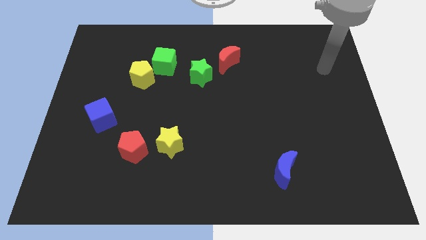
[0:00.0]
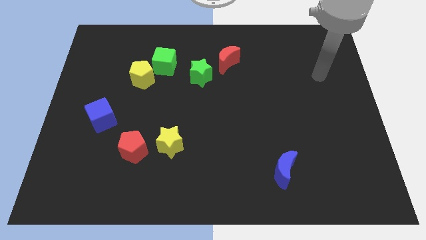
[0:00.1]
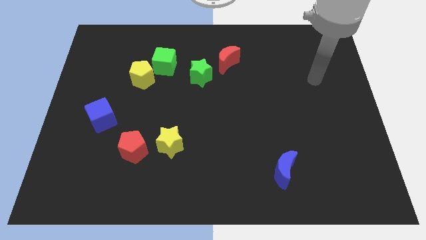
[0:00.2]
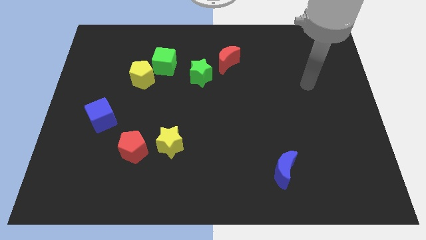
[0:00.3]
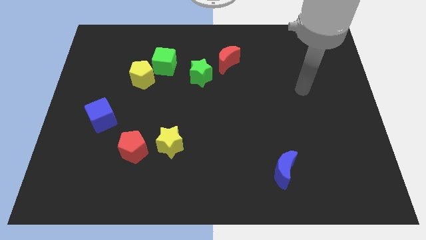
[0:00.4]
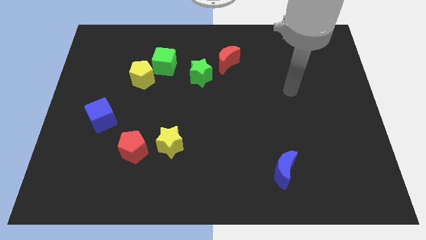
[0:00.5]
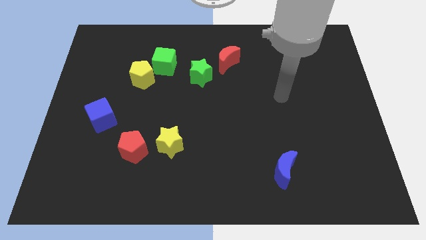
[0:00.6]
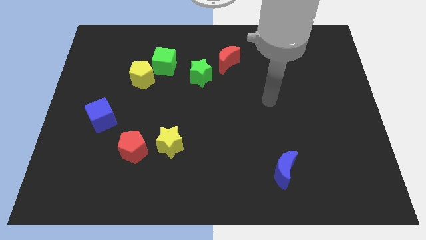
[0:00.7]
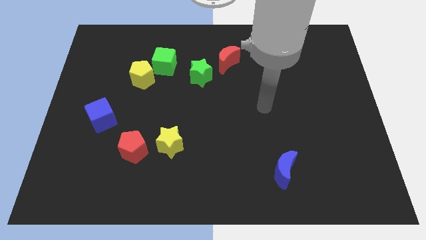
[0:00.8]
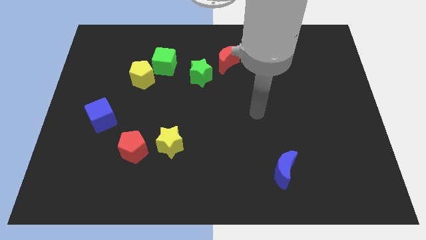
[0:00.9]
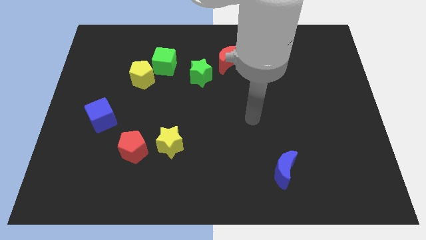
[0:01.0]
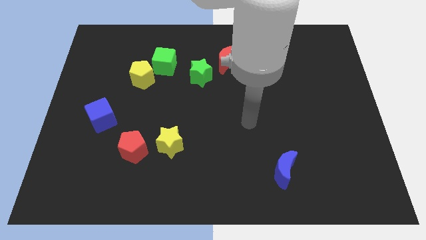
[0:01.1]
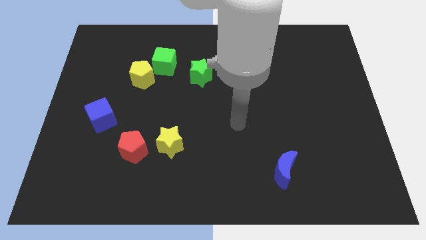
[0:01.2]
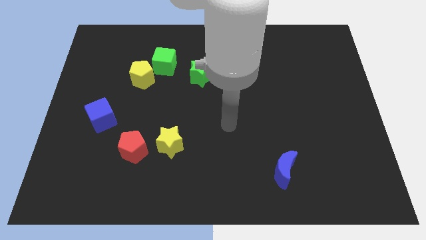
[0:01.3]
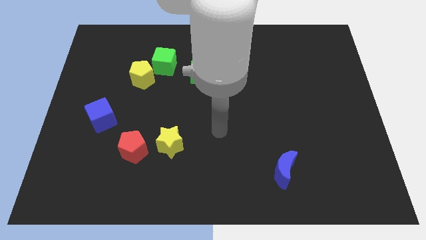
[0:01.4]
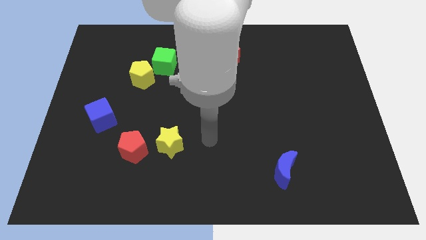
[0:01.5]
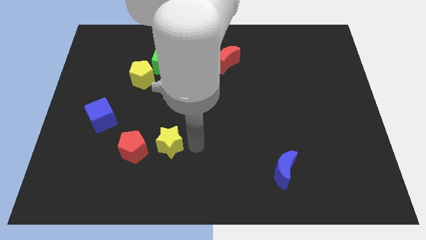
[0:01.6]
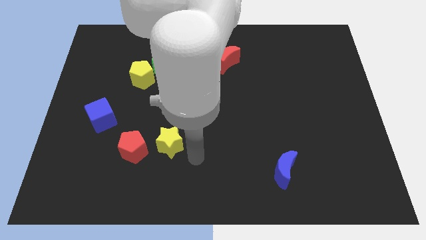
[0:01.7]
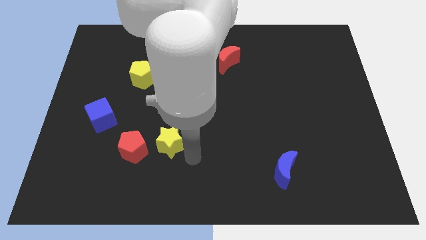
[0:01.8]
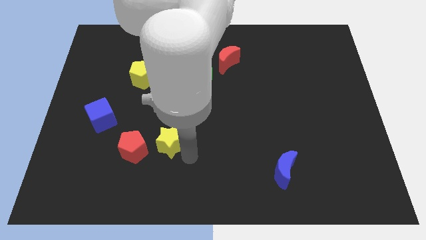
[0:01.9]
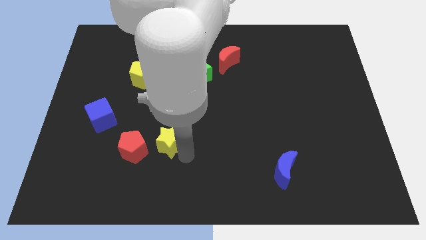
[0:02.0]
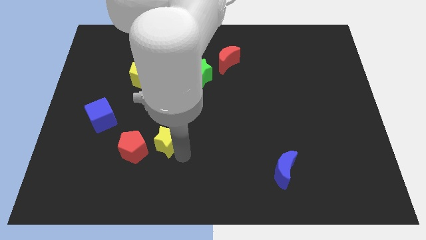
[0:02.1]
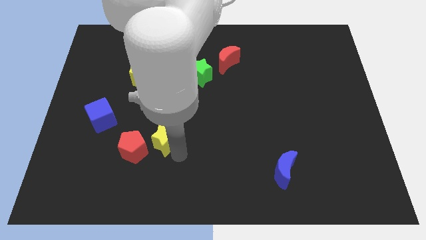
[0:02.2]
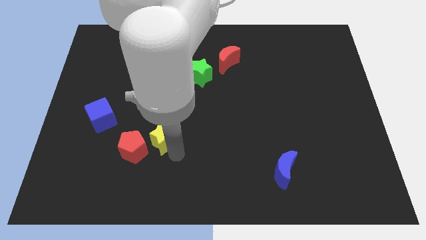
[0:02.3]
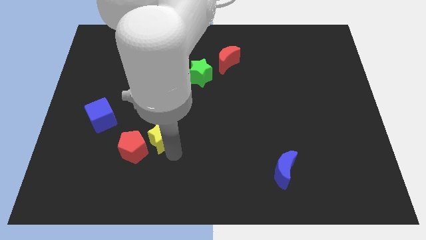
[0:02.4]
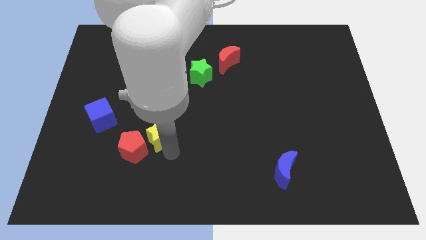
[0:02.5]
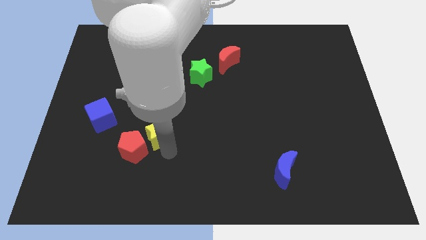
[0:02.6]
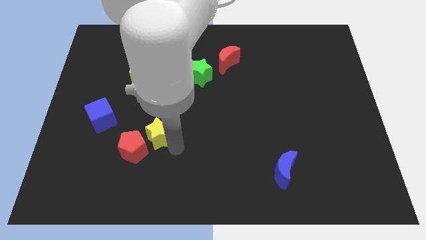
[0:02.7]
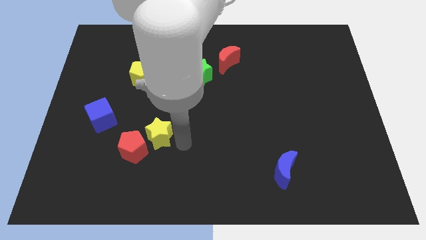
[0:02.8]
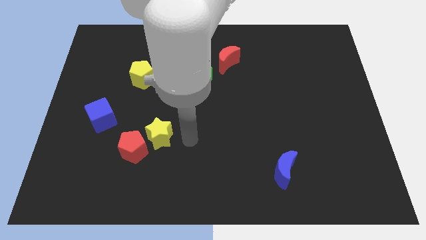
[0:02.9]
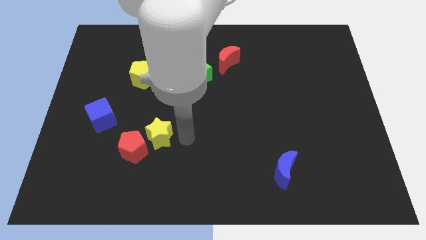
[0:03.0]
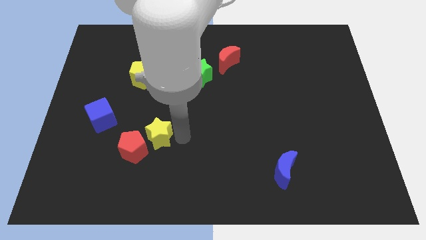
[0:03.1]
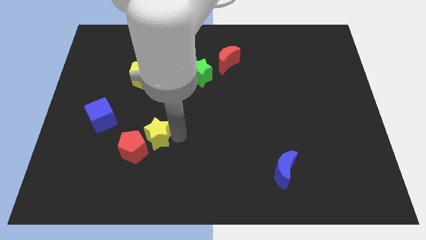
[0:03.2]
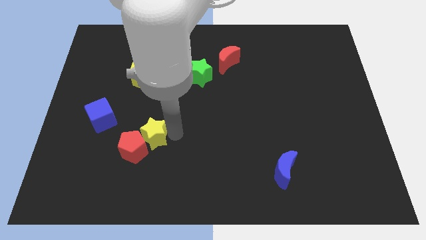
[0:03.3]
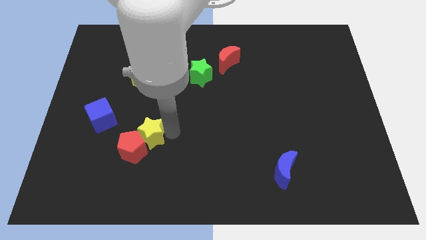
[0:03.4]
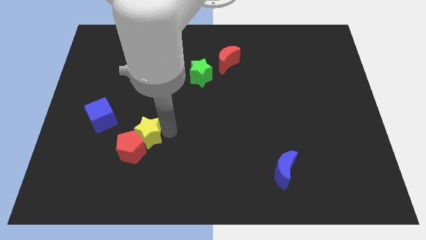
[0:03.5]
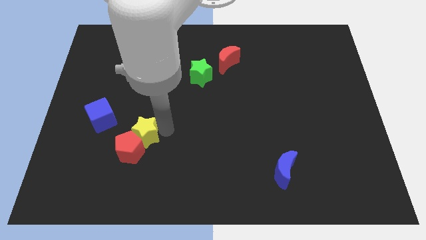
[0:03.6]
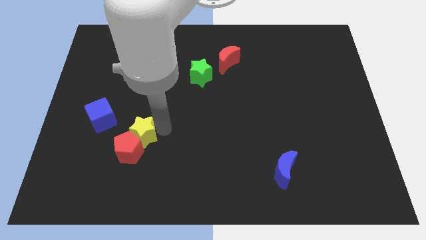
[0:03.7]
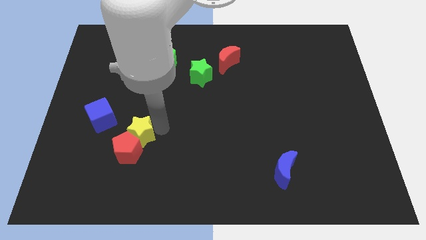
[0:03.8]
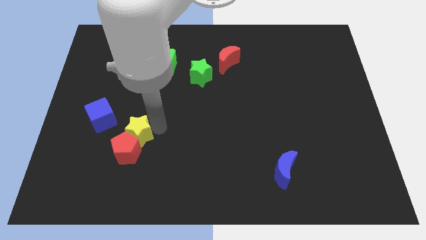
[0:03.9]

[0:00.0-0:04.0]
slide the yellow star to the left slightly

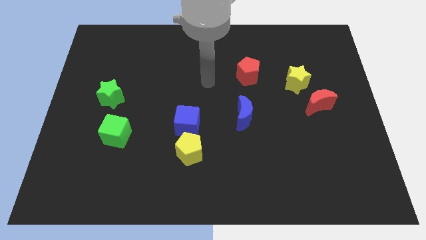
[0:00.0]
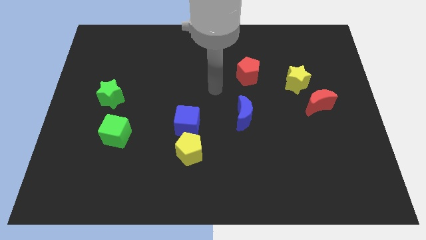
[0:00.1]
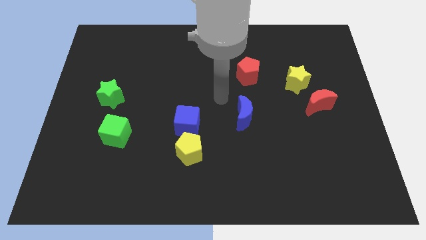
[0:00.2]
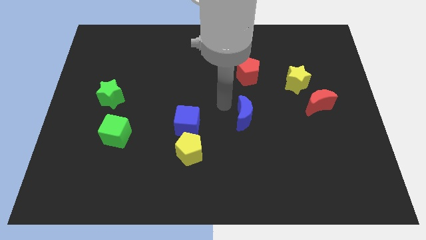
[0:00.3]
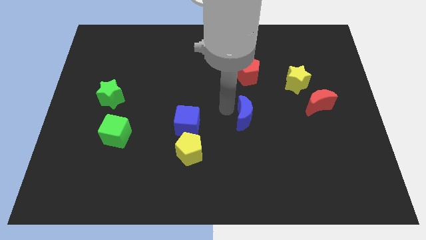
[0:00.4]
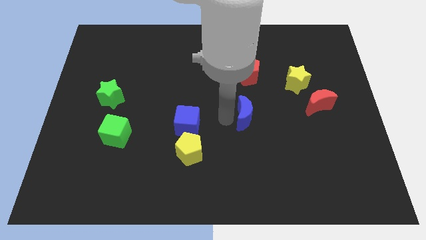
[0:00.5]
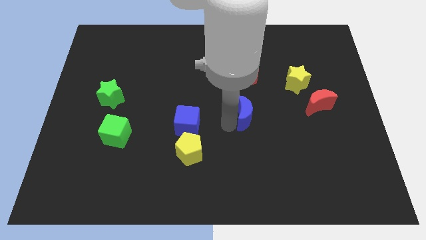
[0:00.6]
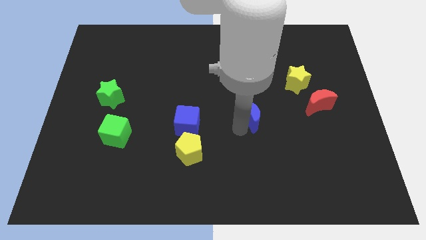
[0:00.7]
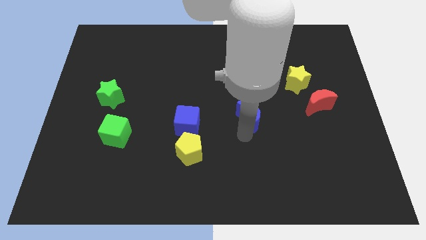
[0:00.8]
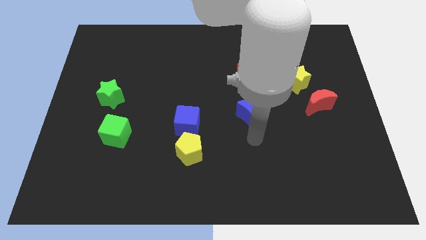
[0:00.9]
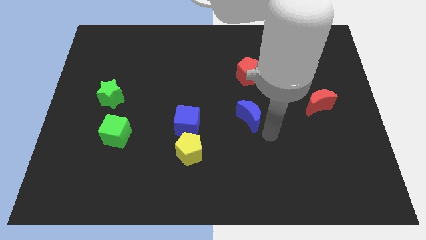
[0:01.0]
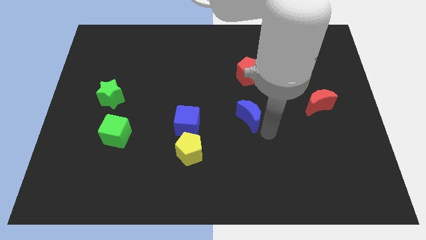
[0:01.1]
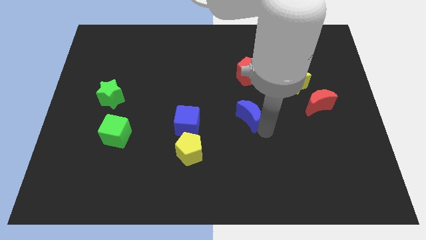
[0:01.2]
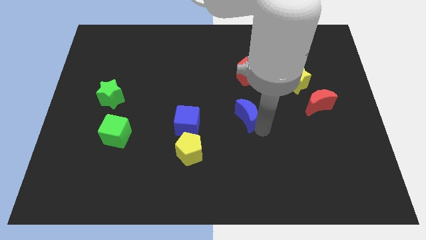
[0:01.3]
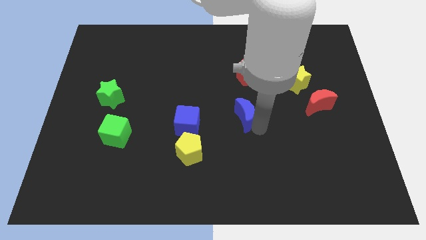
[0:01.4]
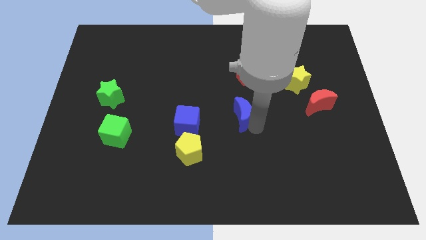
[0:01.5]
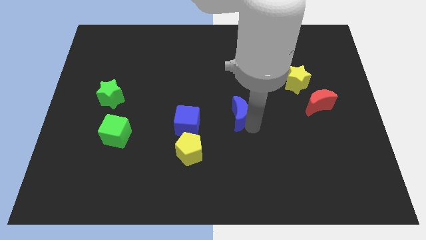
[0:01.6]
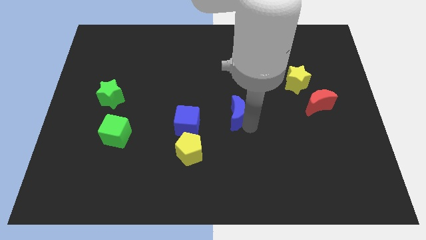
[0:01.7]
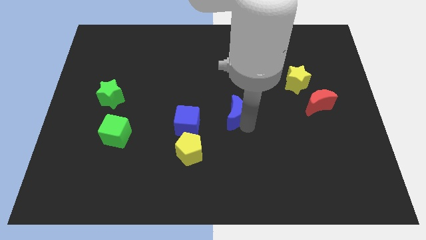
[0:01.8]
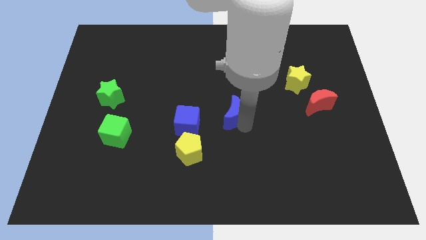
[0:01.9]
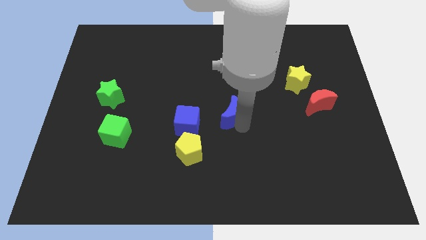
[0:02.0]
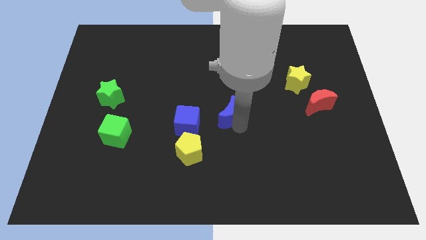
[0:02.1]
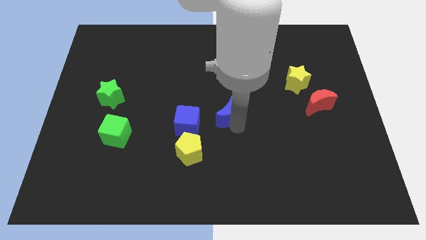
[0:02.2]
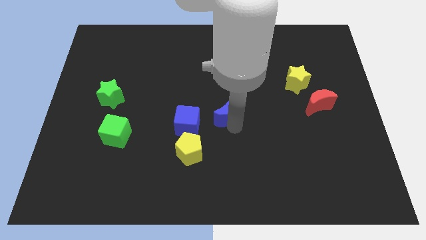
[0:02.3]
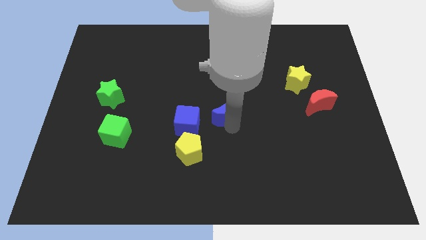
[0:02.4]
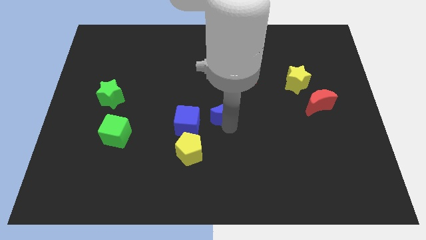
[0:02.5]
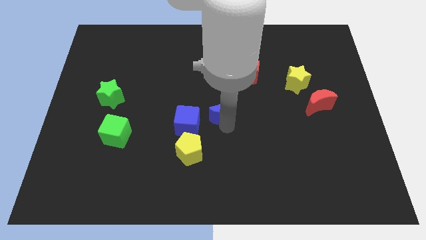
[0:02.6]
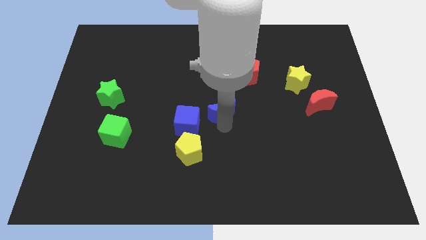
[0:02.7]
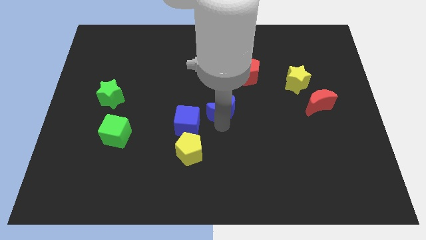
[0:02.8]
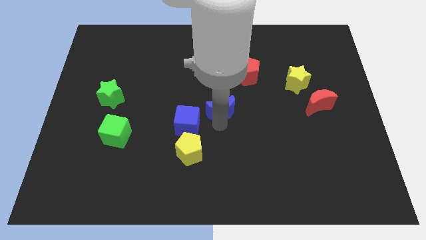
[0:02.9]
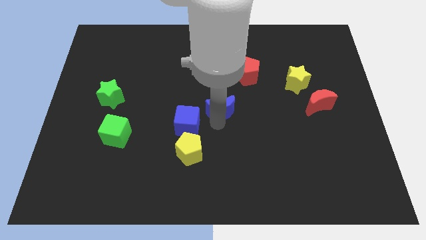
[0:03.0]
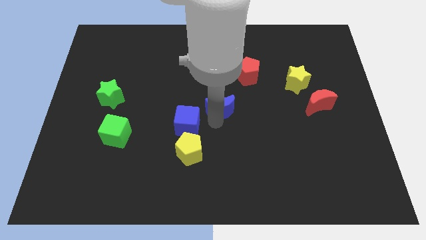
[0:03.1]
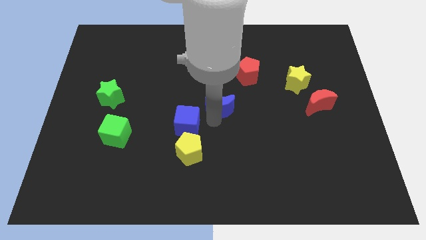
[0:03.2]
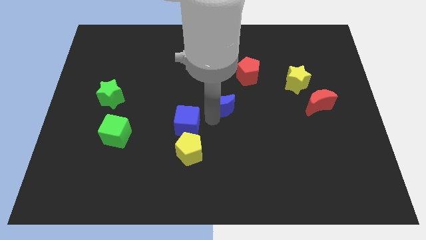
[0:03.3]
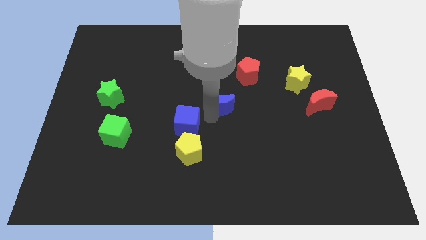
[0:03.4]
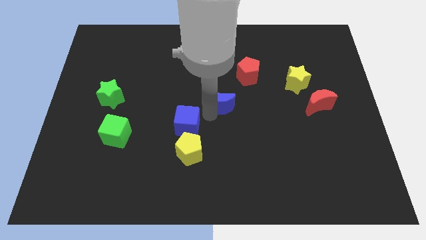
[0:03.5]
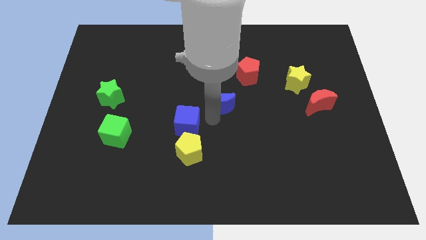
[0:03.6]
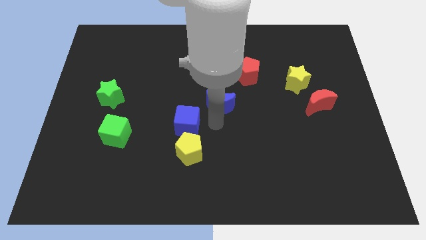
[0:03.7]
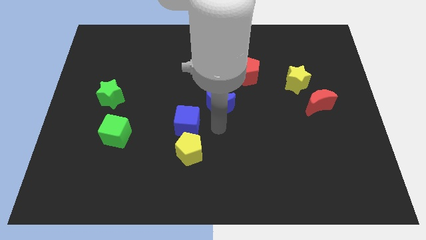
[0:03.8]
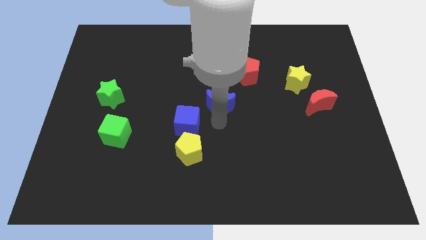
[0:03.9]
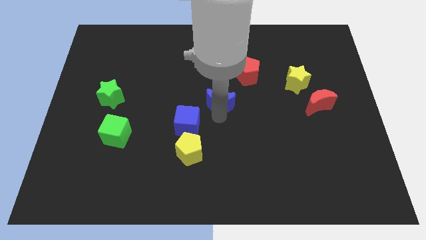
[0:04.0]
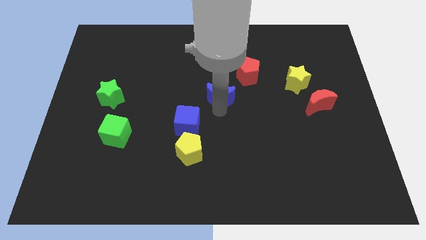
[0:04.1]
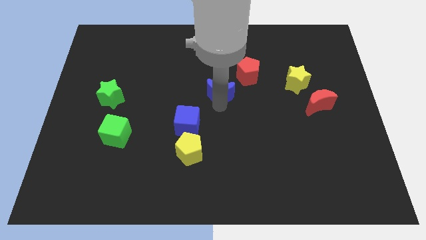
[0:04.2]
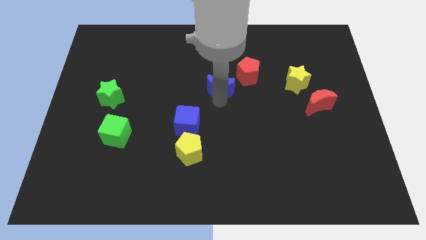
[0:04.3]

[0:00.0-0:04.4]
push the blue moon a bit upwards
